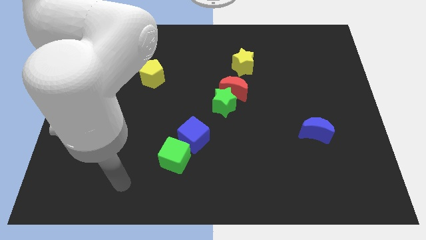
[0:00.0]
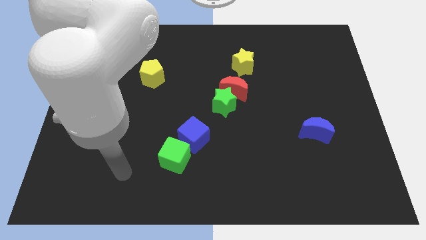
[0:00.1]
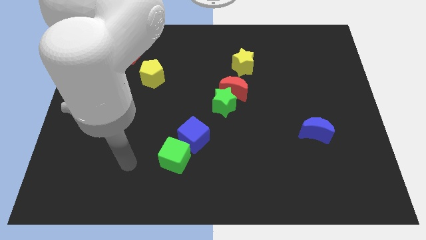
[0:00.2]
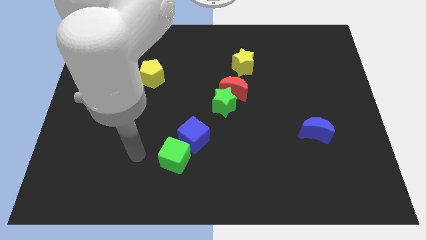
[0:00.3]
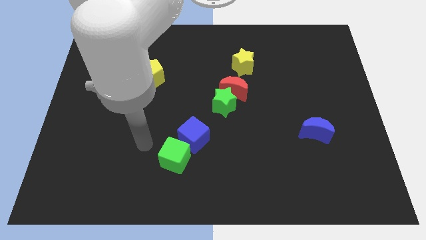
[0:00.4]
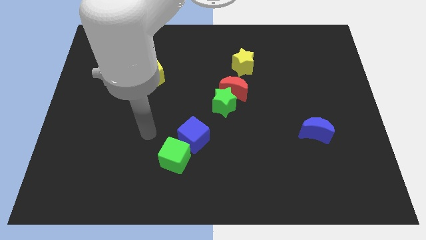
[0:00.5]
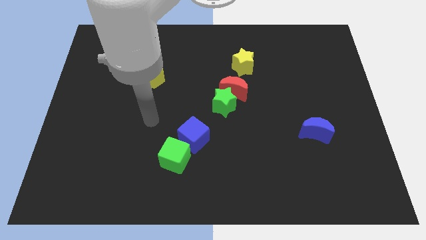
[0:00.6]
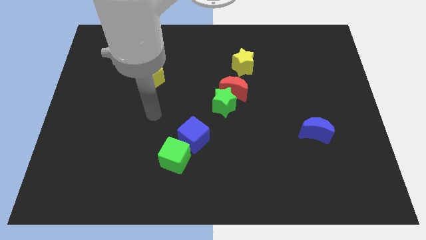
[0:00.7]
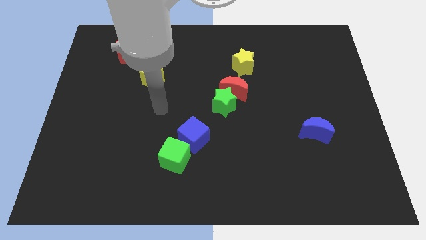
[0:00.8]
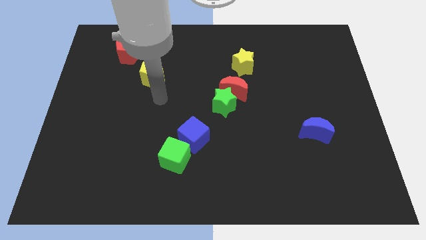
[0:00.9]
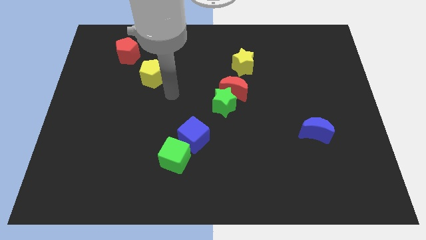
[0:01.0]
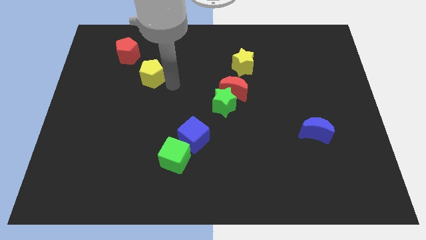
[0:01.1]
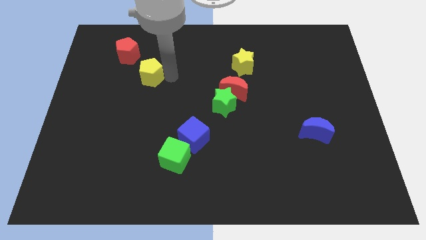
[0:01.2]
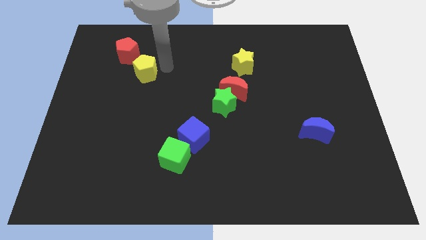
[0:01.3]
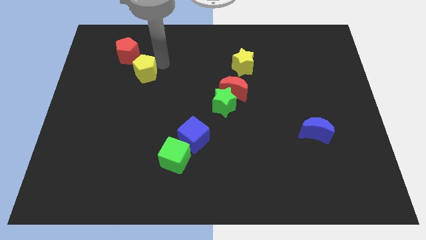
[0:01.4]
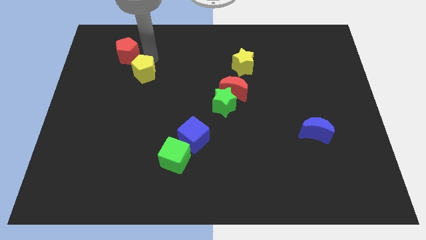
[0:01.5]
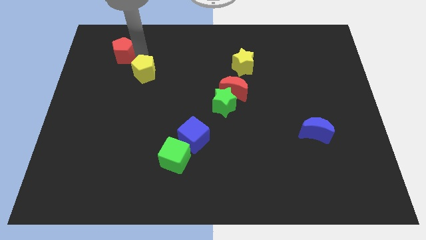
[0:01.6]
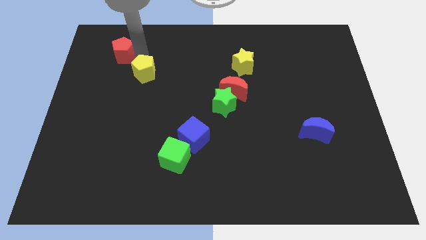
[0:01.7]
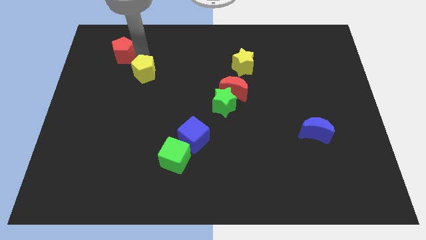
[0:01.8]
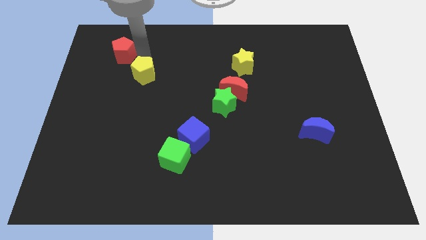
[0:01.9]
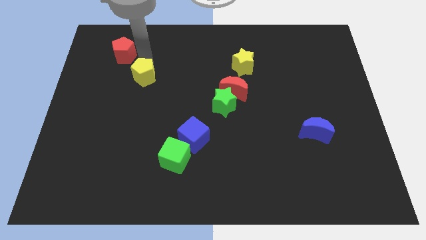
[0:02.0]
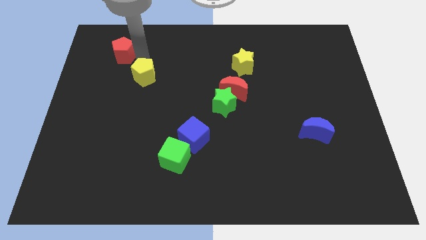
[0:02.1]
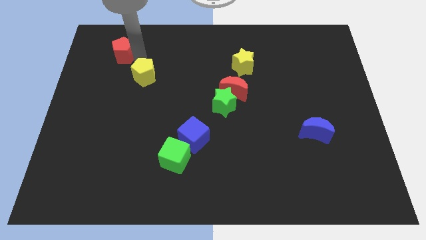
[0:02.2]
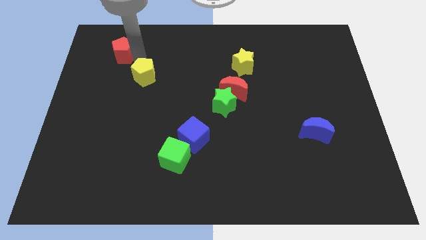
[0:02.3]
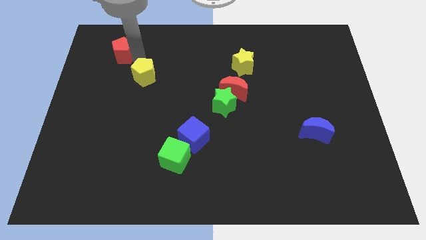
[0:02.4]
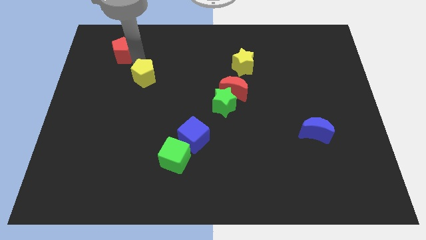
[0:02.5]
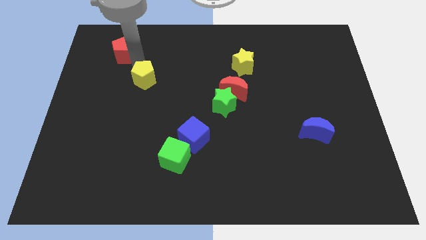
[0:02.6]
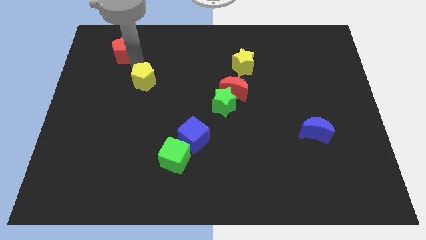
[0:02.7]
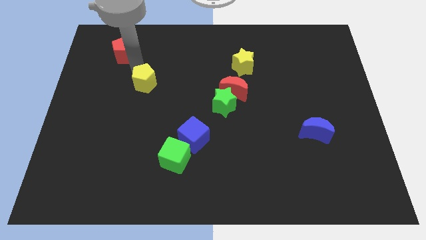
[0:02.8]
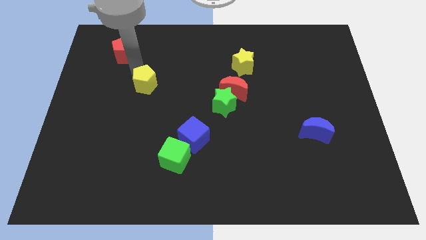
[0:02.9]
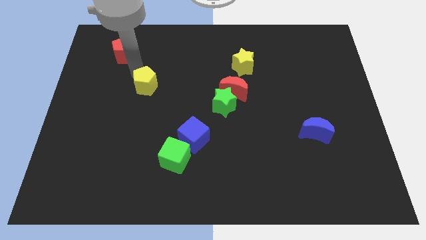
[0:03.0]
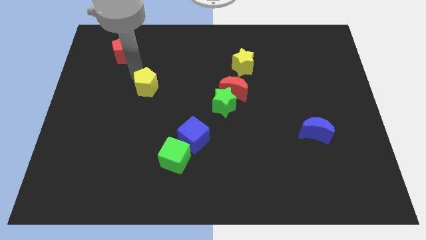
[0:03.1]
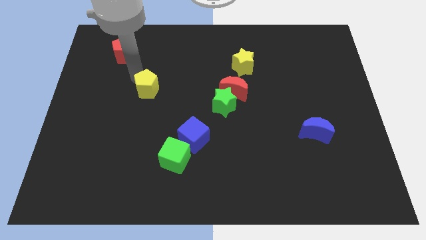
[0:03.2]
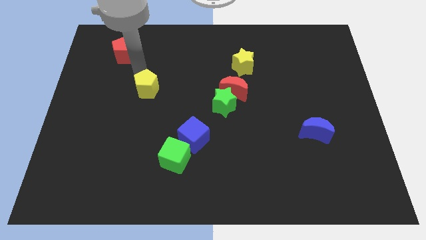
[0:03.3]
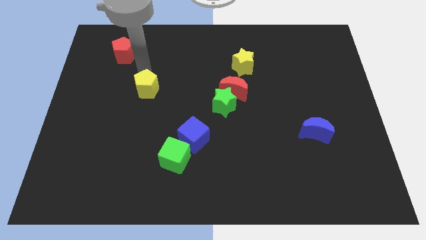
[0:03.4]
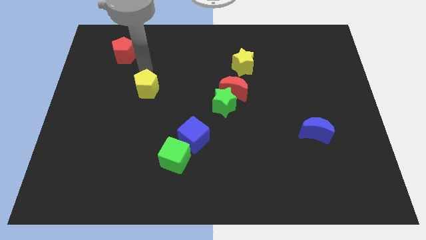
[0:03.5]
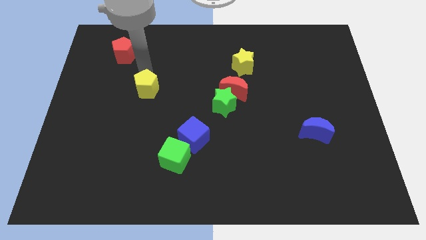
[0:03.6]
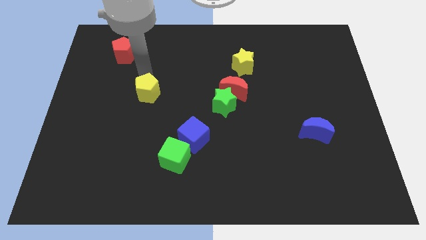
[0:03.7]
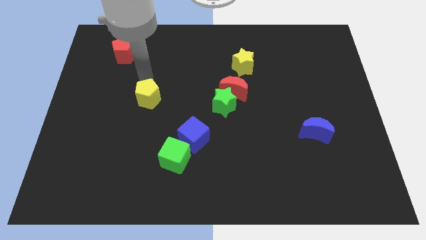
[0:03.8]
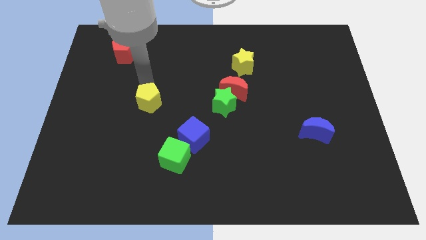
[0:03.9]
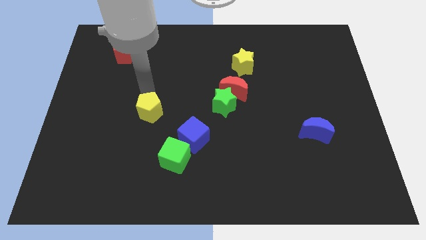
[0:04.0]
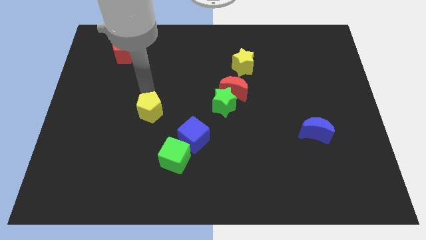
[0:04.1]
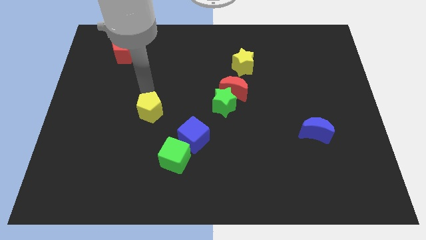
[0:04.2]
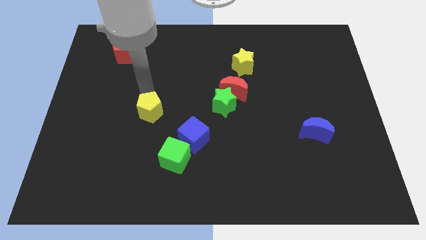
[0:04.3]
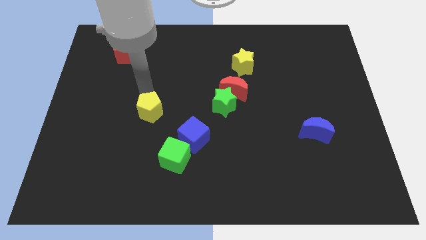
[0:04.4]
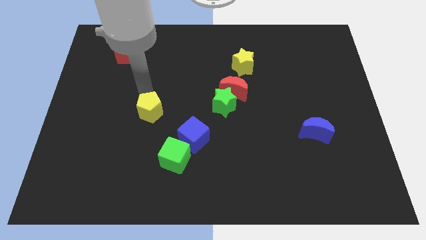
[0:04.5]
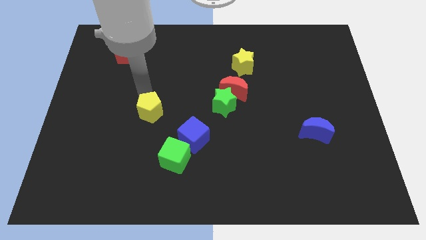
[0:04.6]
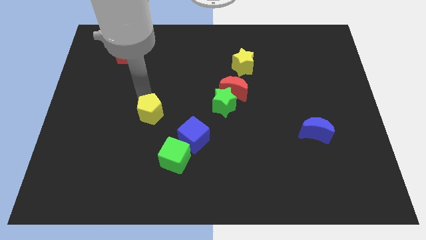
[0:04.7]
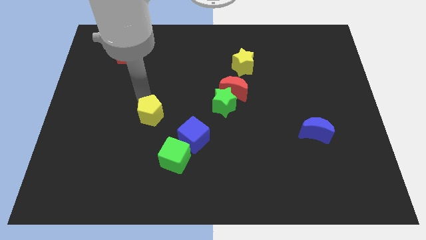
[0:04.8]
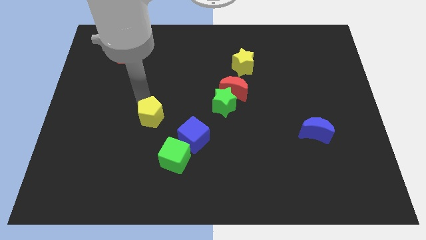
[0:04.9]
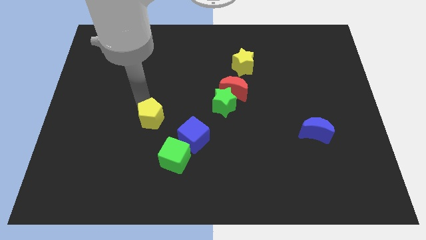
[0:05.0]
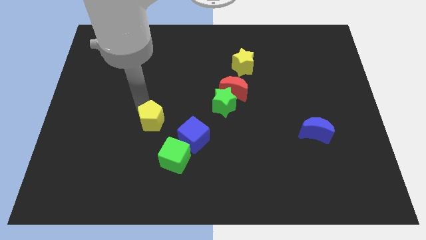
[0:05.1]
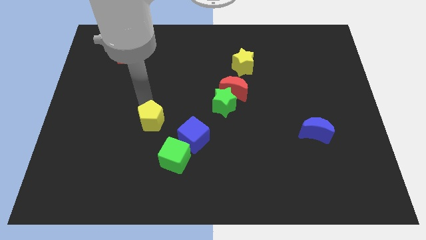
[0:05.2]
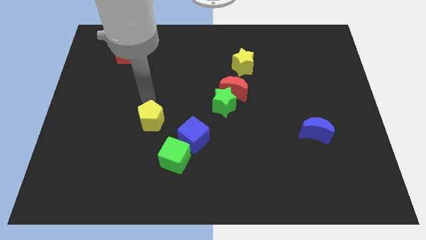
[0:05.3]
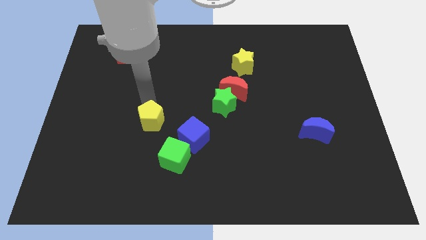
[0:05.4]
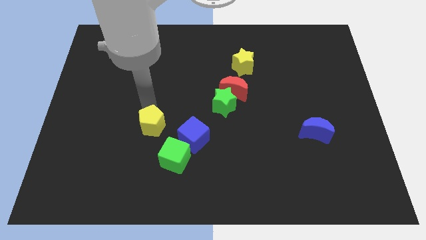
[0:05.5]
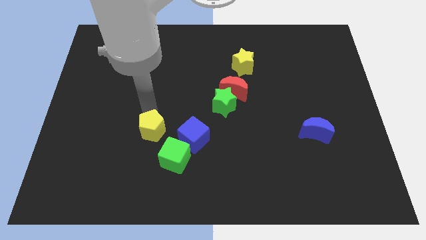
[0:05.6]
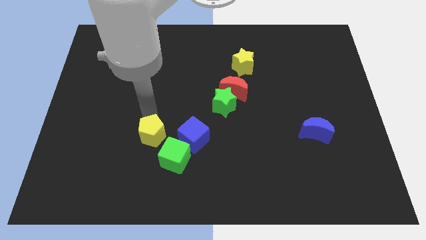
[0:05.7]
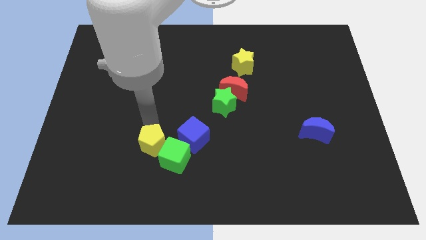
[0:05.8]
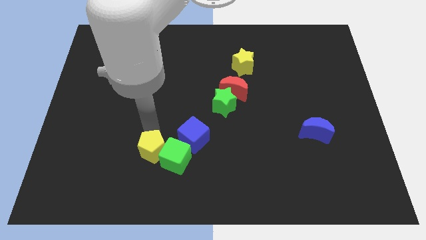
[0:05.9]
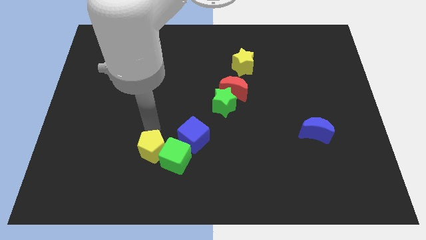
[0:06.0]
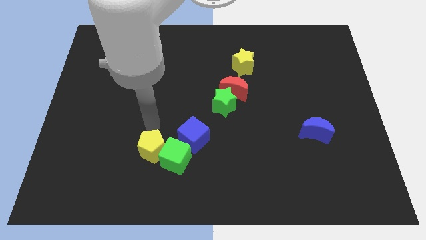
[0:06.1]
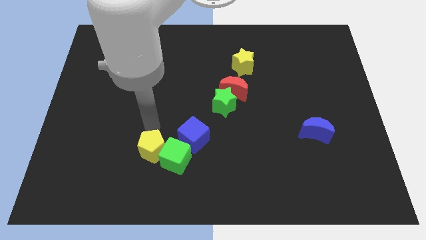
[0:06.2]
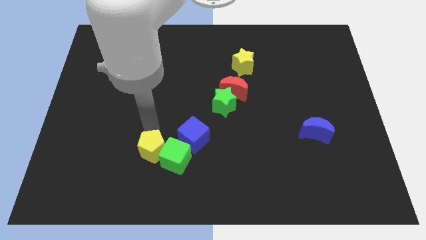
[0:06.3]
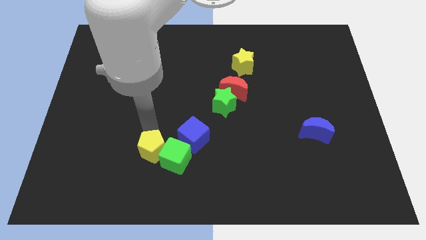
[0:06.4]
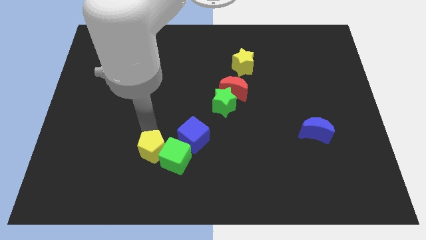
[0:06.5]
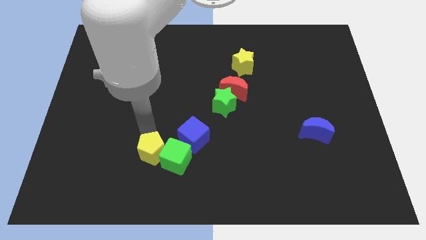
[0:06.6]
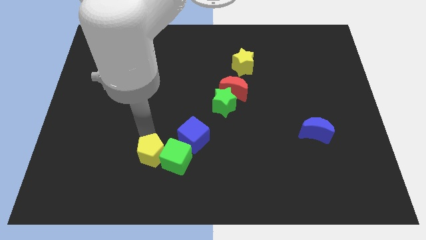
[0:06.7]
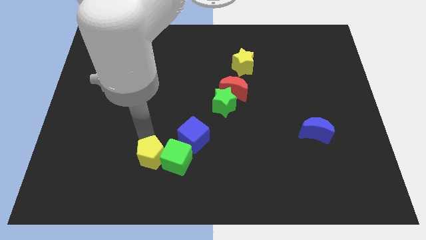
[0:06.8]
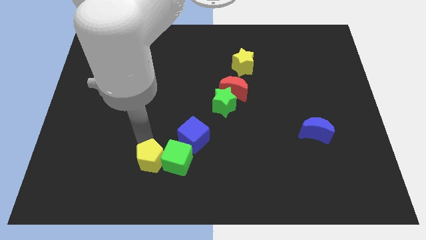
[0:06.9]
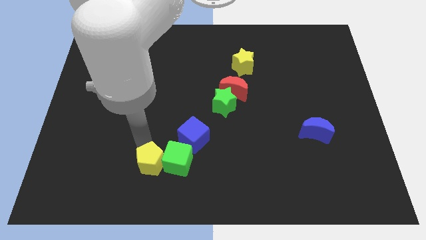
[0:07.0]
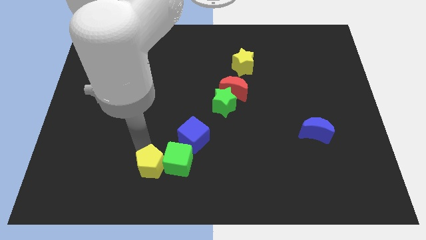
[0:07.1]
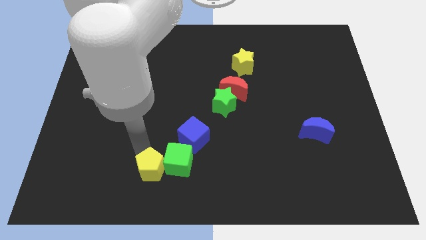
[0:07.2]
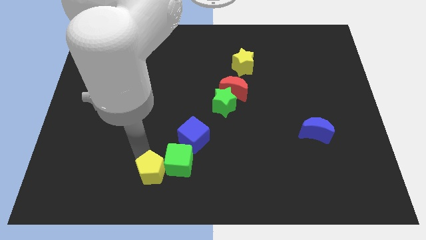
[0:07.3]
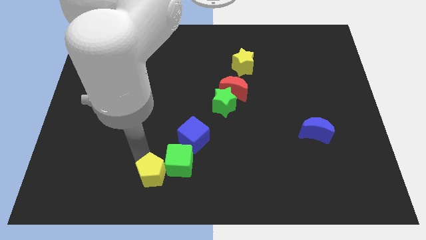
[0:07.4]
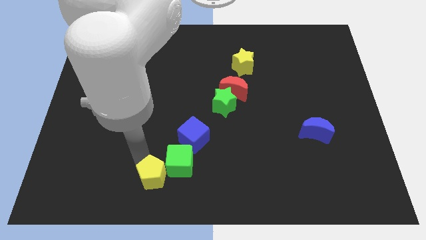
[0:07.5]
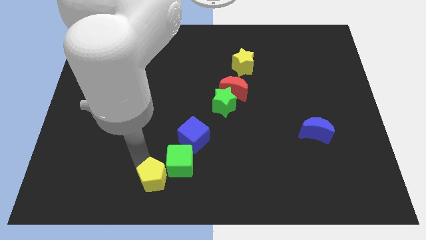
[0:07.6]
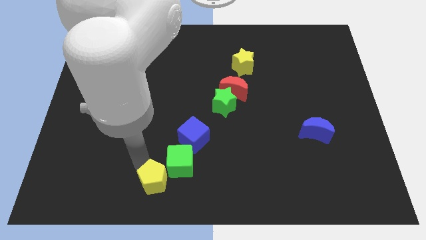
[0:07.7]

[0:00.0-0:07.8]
slide the yellow pentagon to the bottom side
